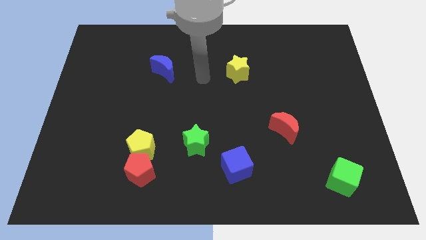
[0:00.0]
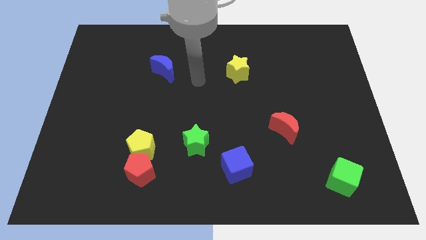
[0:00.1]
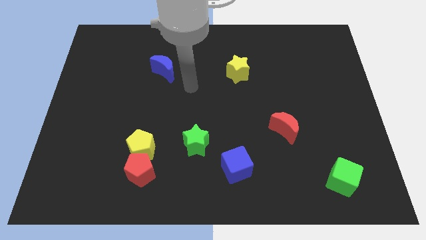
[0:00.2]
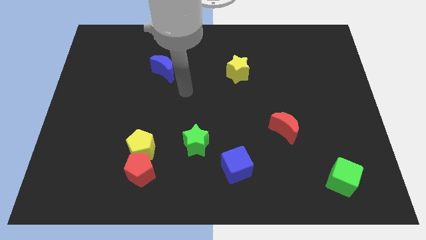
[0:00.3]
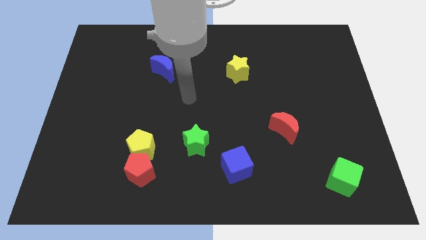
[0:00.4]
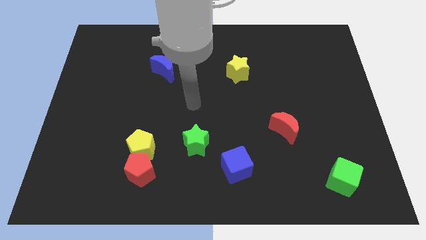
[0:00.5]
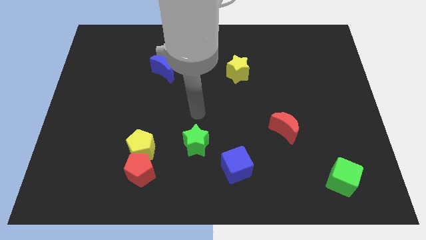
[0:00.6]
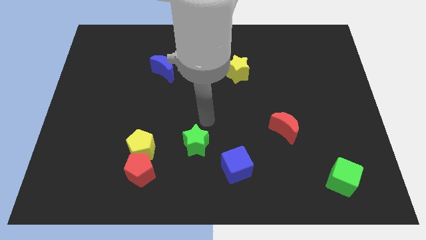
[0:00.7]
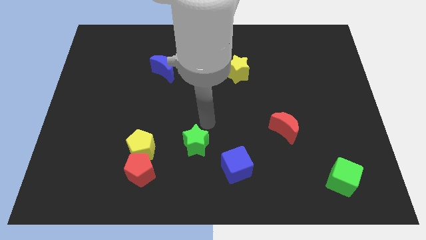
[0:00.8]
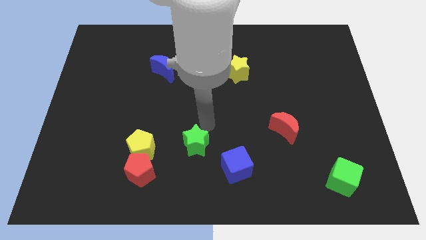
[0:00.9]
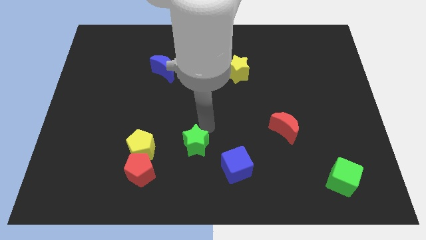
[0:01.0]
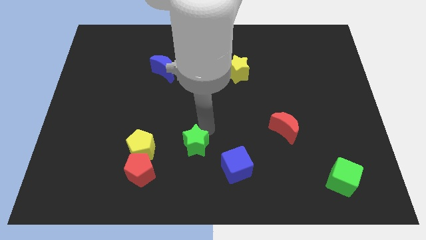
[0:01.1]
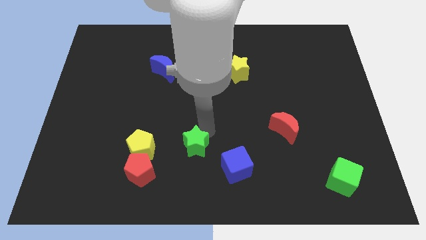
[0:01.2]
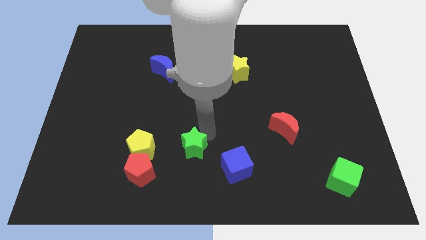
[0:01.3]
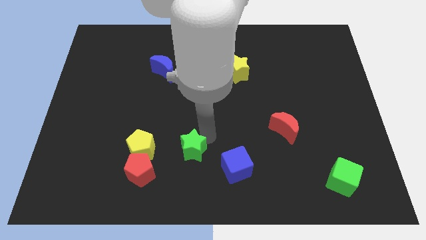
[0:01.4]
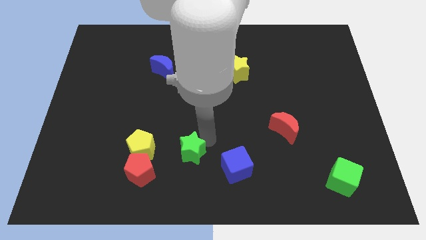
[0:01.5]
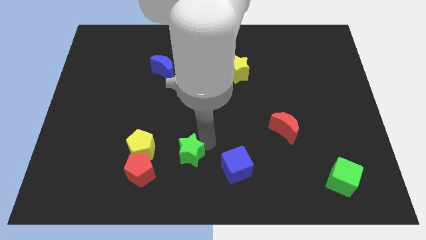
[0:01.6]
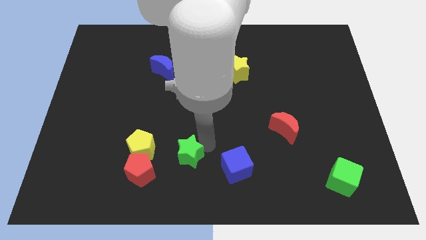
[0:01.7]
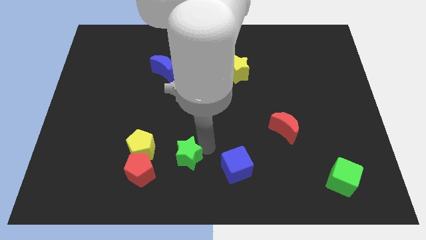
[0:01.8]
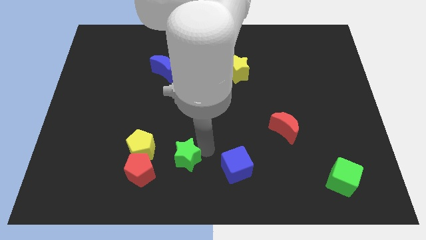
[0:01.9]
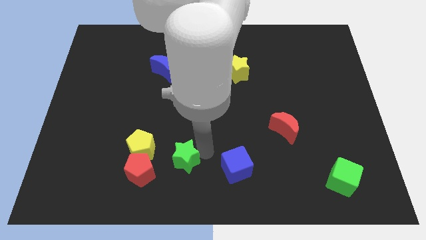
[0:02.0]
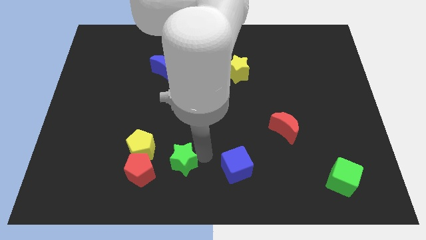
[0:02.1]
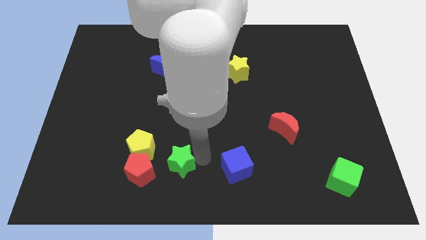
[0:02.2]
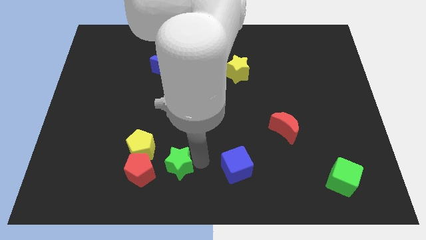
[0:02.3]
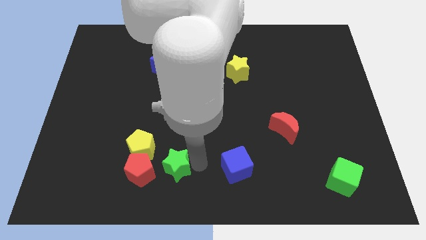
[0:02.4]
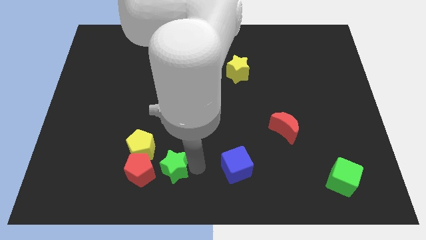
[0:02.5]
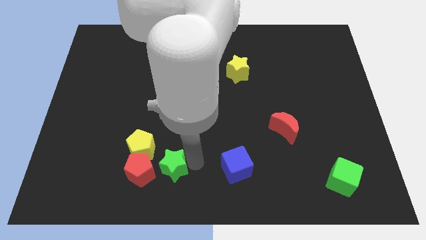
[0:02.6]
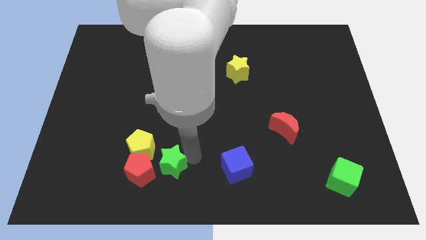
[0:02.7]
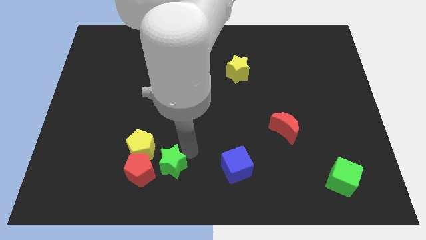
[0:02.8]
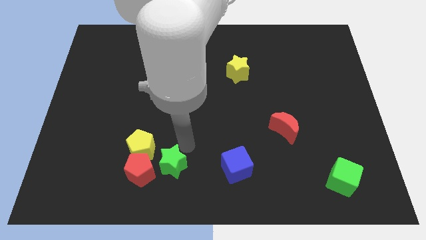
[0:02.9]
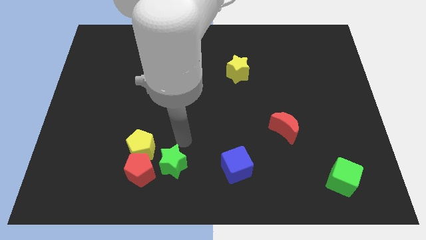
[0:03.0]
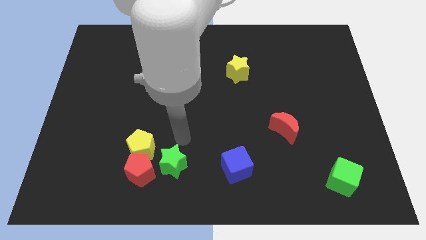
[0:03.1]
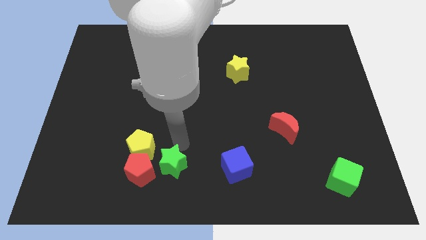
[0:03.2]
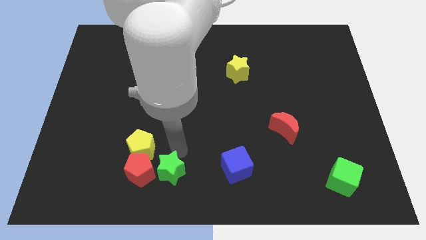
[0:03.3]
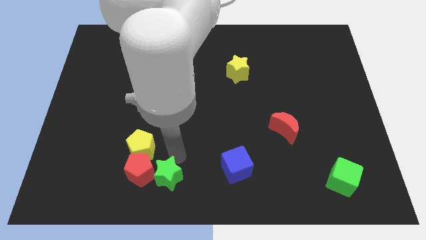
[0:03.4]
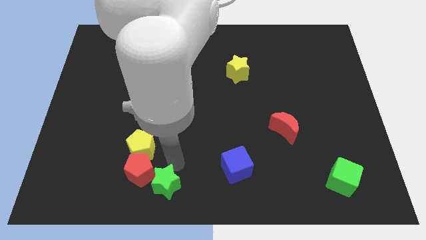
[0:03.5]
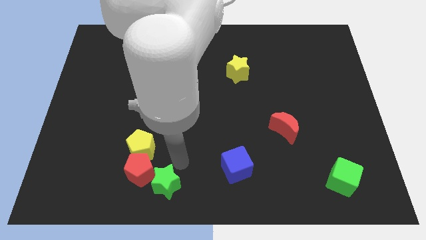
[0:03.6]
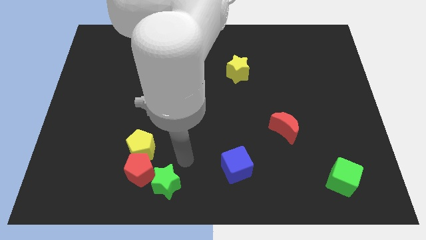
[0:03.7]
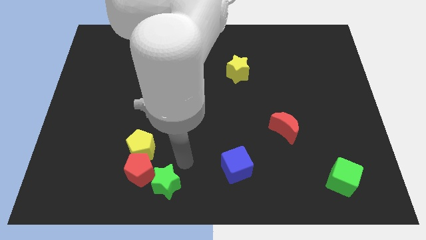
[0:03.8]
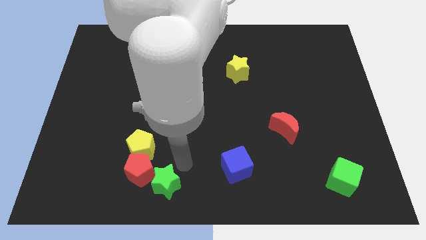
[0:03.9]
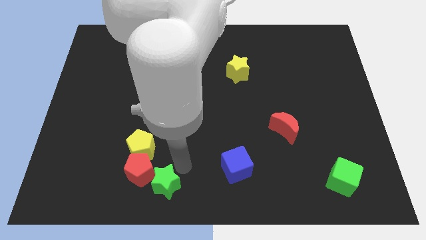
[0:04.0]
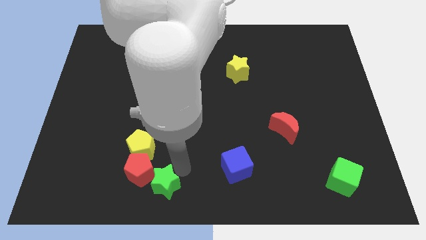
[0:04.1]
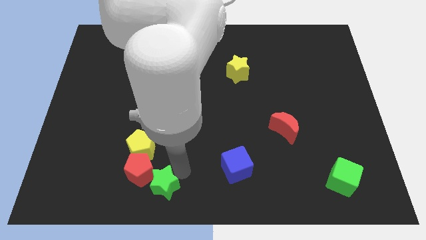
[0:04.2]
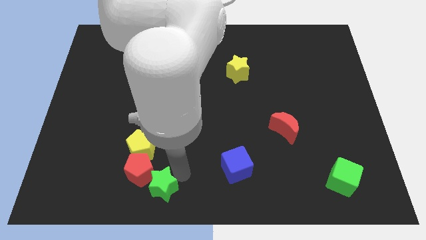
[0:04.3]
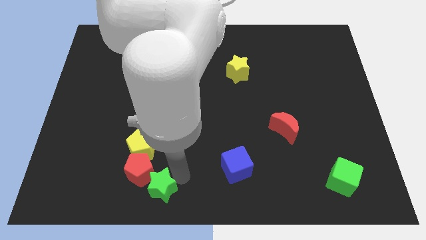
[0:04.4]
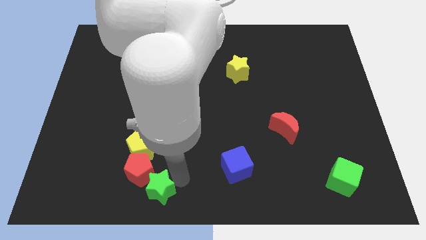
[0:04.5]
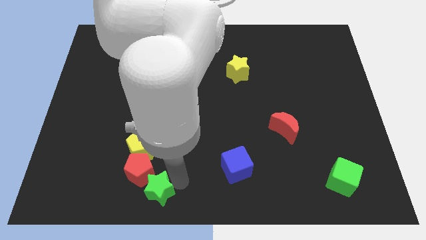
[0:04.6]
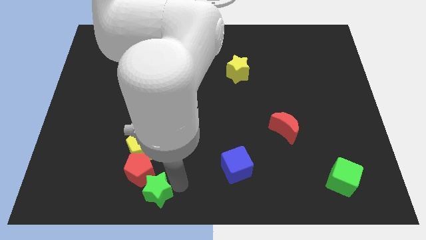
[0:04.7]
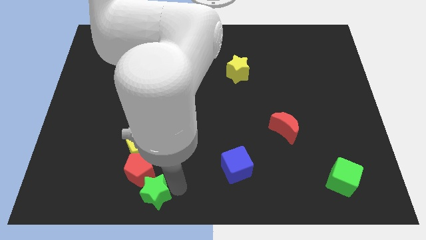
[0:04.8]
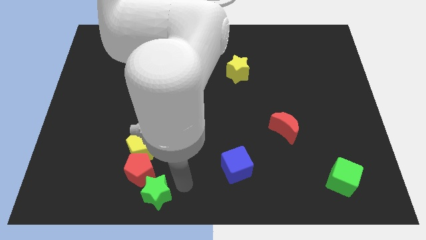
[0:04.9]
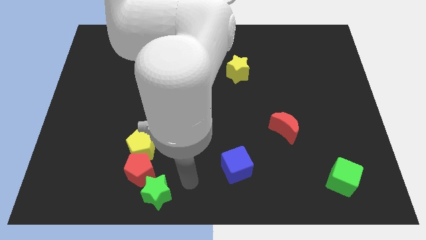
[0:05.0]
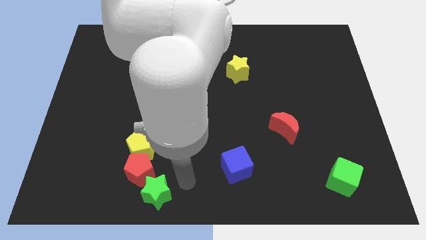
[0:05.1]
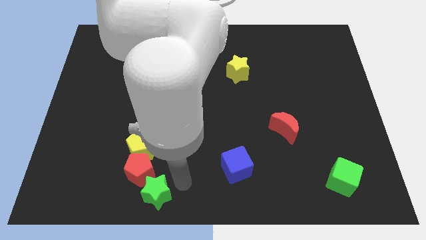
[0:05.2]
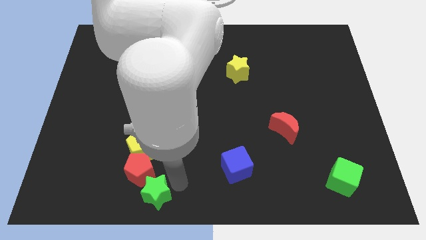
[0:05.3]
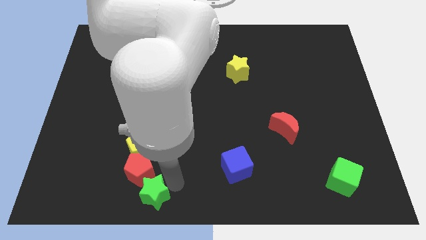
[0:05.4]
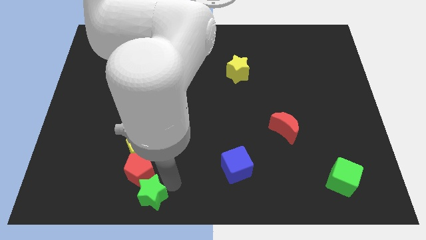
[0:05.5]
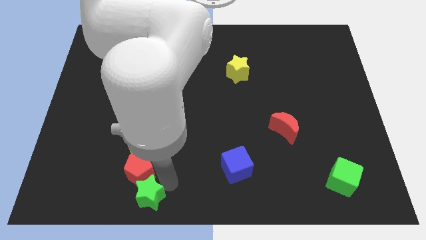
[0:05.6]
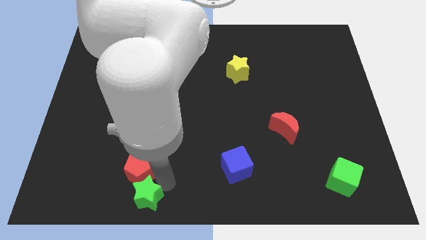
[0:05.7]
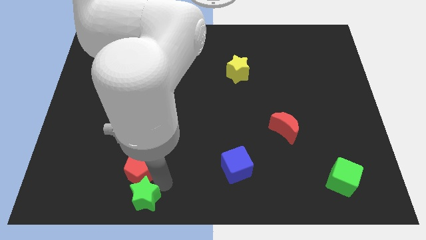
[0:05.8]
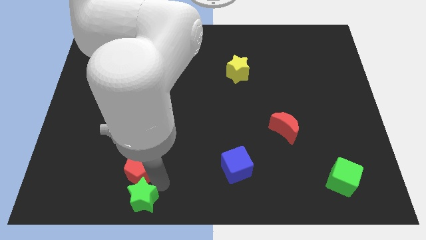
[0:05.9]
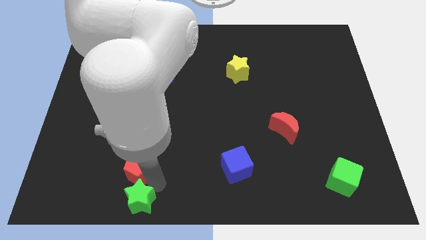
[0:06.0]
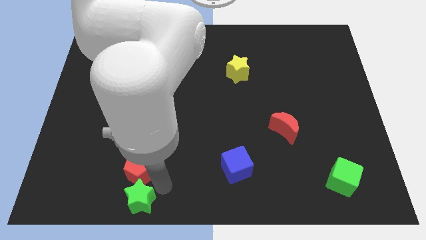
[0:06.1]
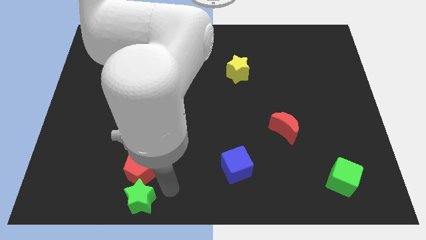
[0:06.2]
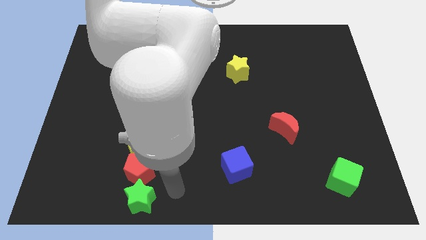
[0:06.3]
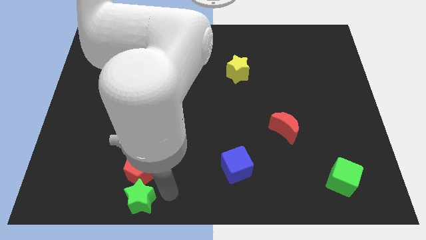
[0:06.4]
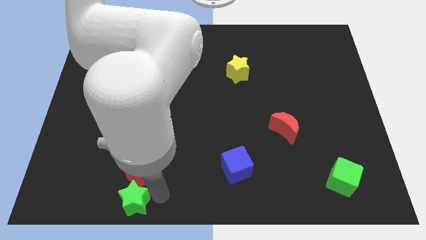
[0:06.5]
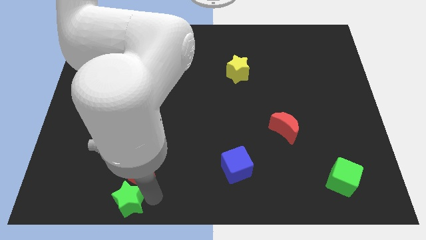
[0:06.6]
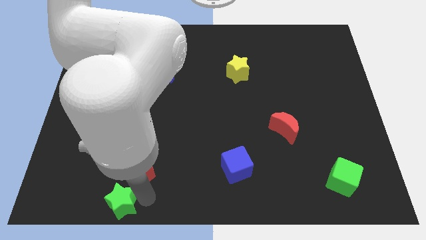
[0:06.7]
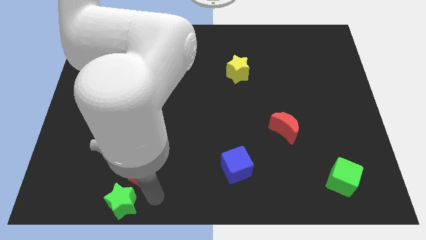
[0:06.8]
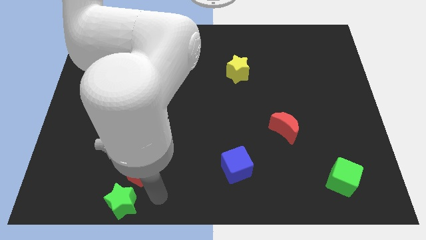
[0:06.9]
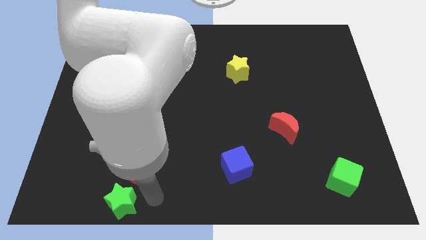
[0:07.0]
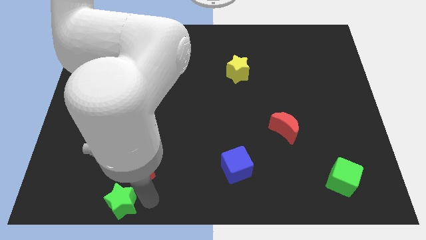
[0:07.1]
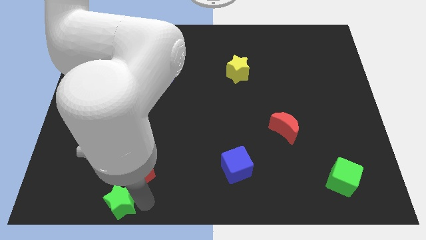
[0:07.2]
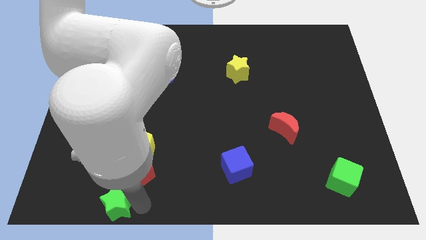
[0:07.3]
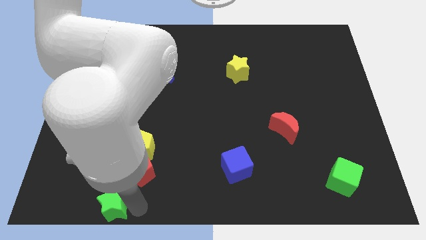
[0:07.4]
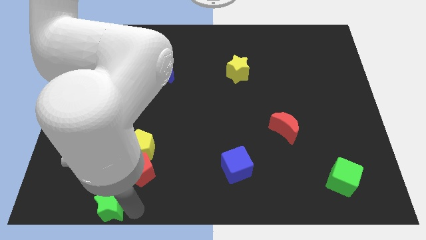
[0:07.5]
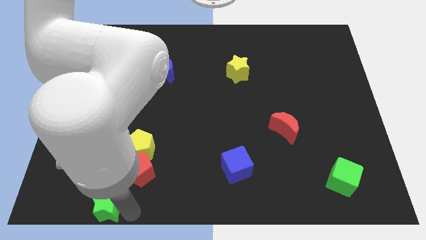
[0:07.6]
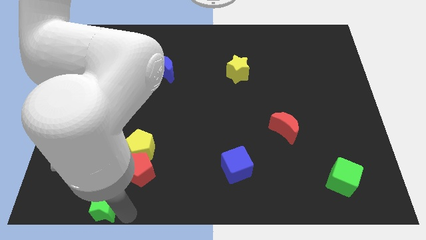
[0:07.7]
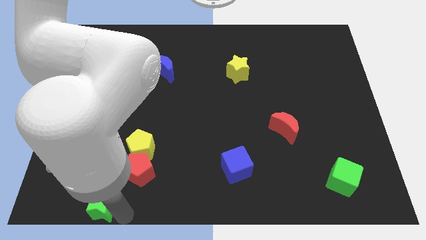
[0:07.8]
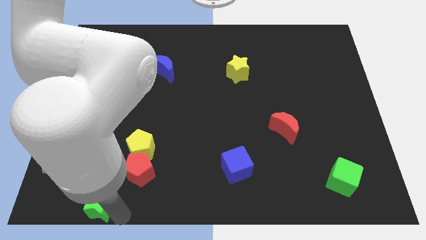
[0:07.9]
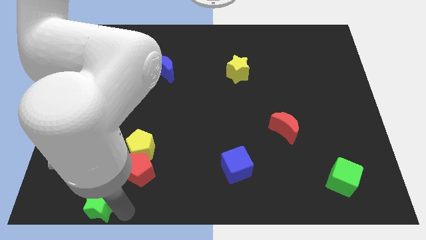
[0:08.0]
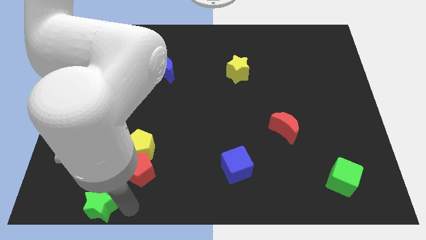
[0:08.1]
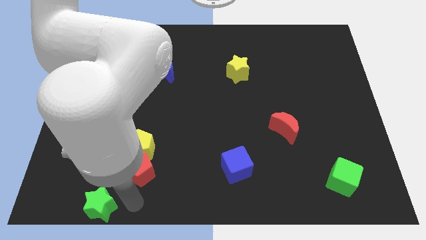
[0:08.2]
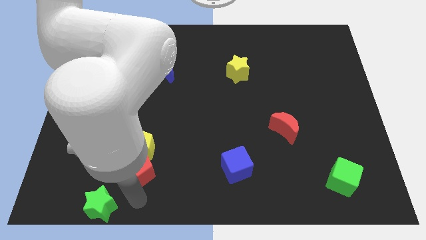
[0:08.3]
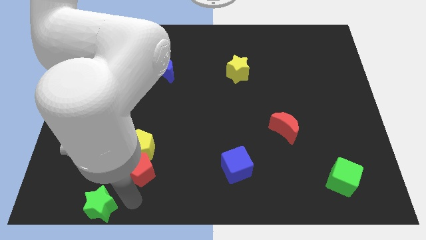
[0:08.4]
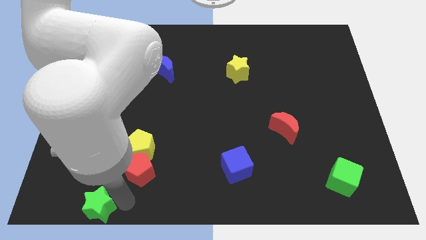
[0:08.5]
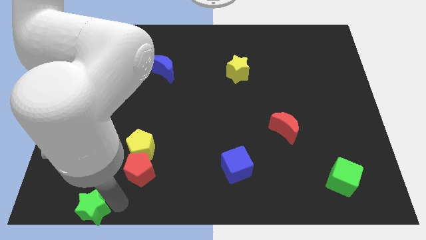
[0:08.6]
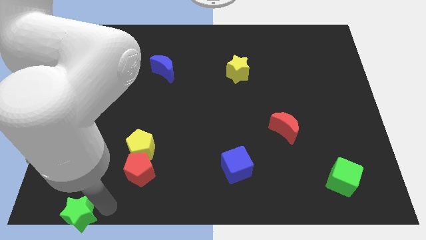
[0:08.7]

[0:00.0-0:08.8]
slide the green star to the bottom left of the board
